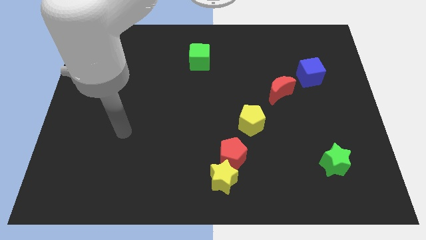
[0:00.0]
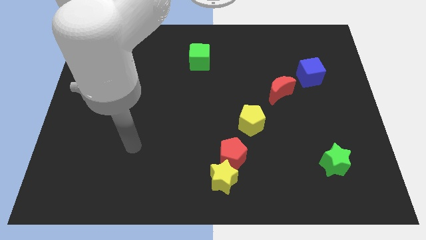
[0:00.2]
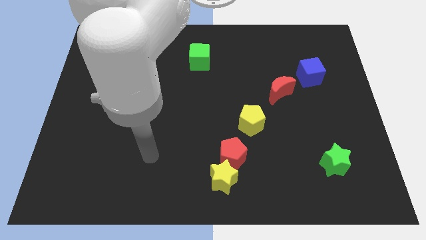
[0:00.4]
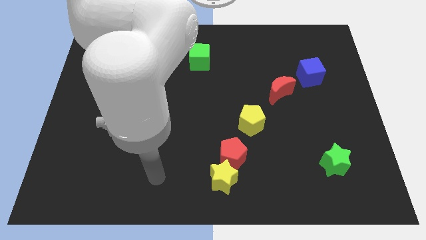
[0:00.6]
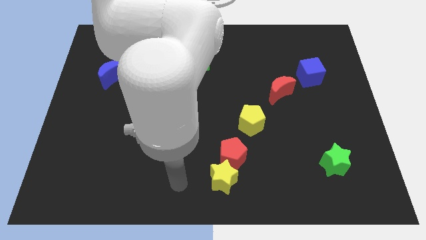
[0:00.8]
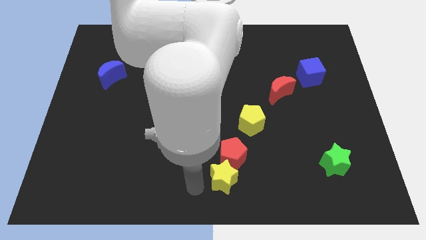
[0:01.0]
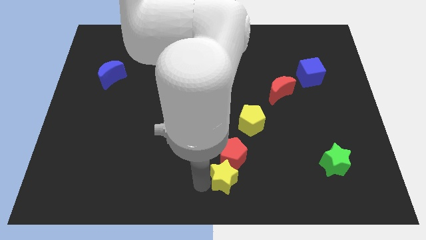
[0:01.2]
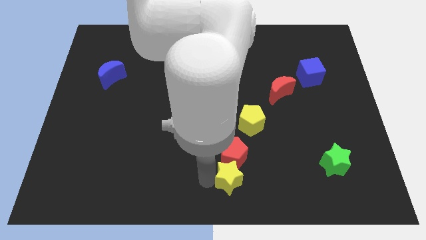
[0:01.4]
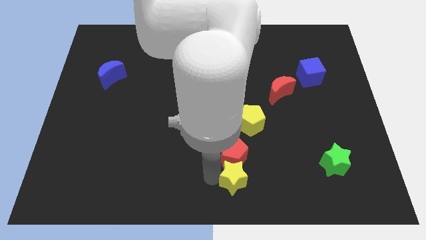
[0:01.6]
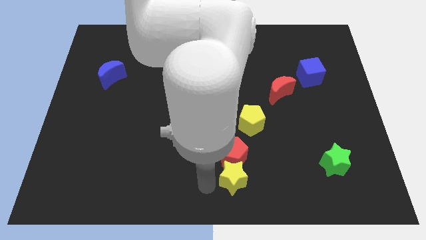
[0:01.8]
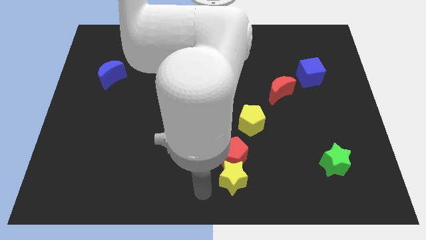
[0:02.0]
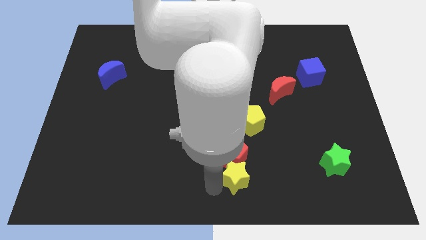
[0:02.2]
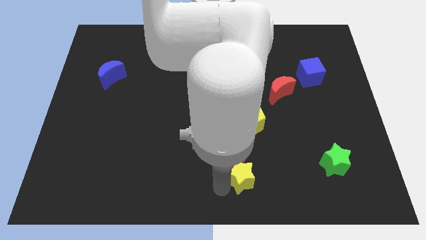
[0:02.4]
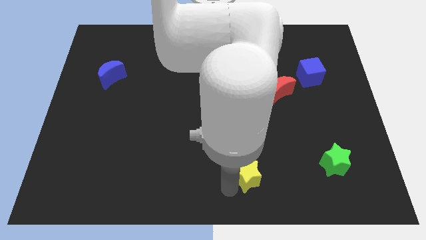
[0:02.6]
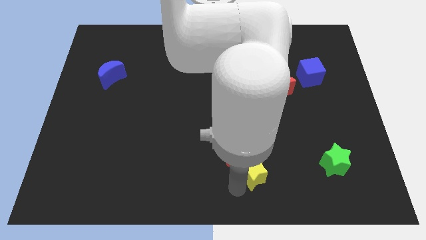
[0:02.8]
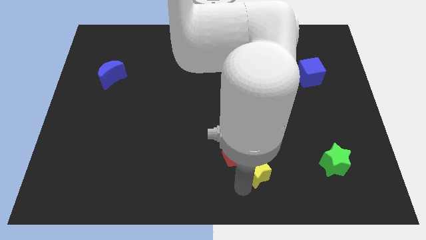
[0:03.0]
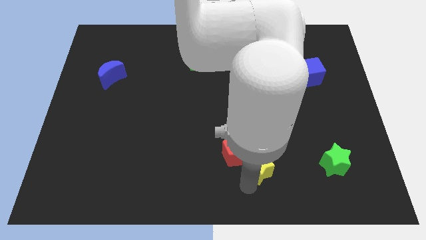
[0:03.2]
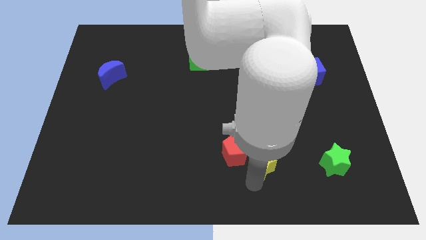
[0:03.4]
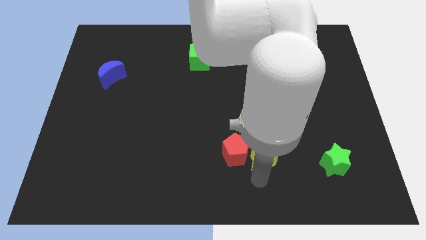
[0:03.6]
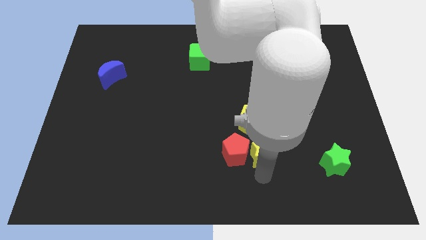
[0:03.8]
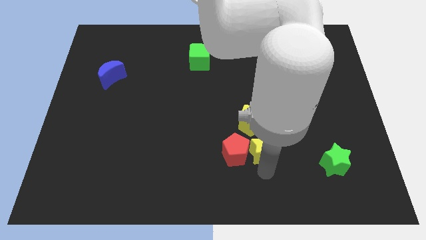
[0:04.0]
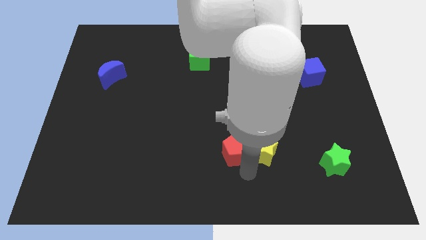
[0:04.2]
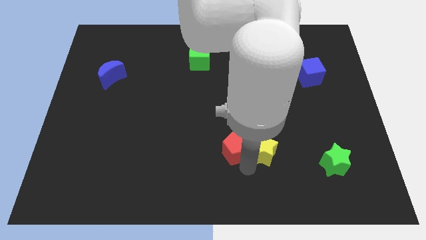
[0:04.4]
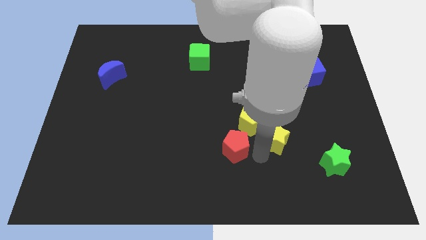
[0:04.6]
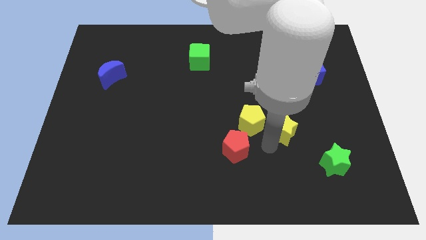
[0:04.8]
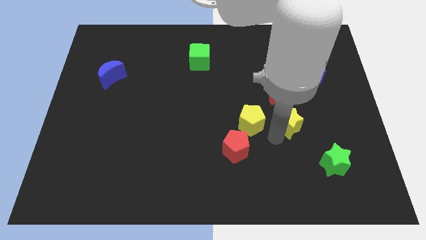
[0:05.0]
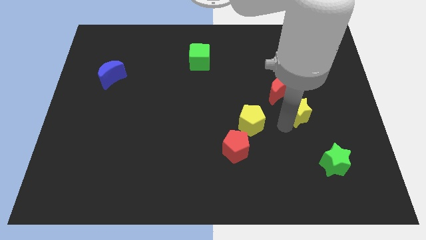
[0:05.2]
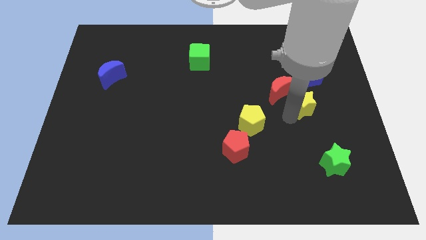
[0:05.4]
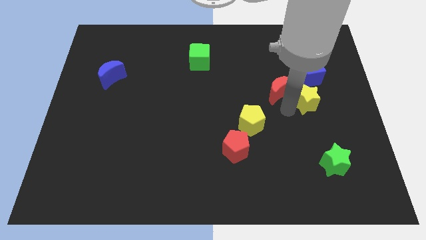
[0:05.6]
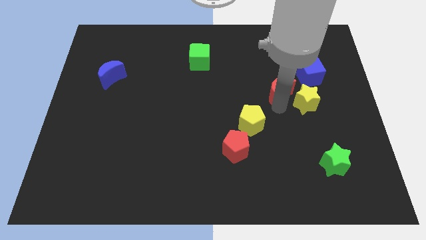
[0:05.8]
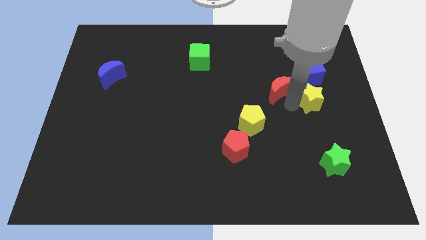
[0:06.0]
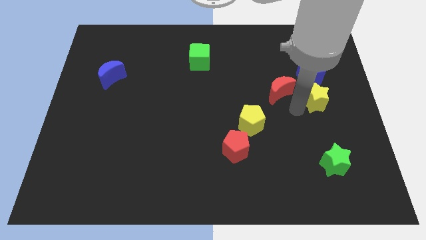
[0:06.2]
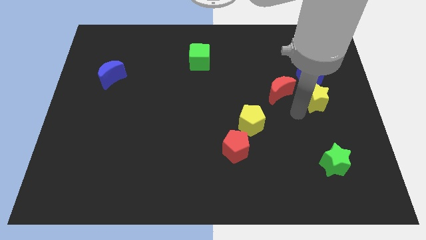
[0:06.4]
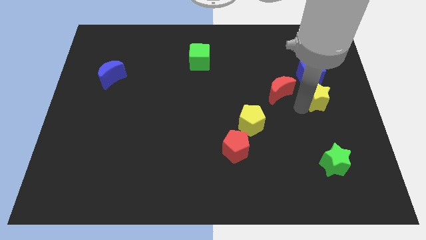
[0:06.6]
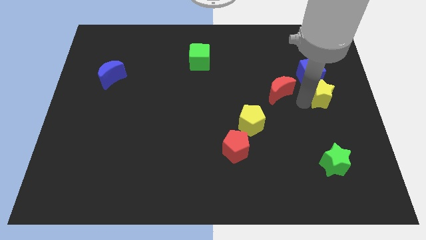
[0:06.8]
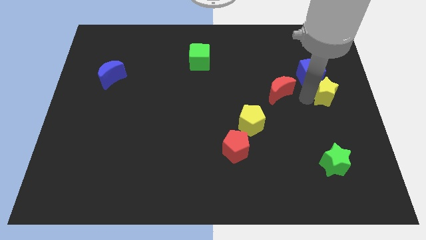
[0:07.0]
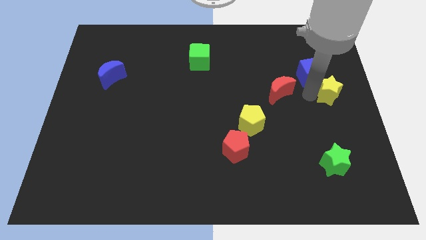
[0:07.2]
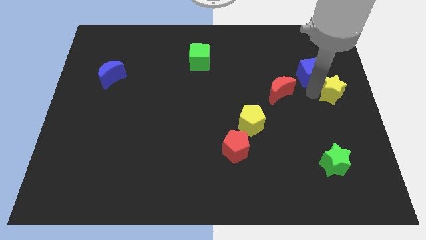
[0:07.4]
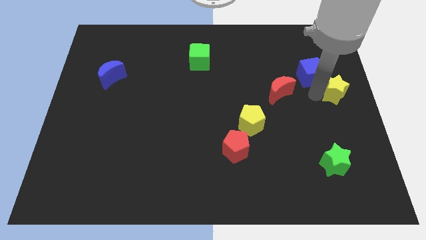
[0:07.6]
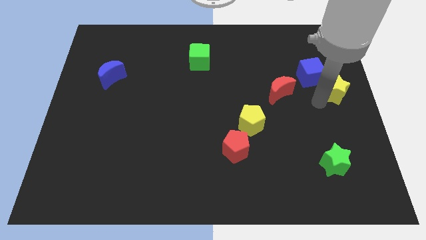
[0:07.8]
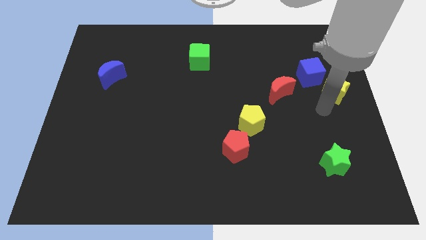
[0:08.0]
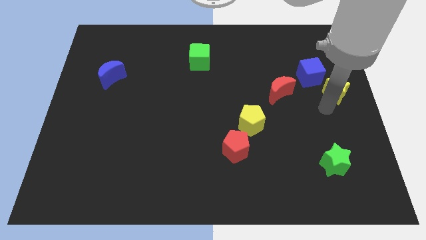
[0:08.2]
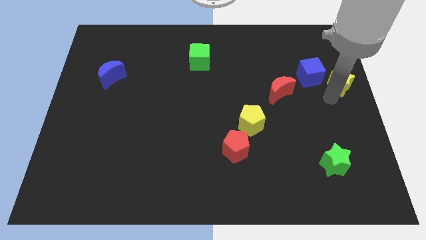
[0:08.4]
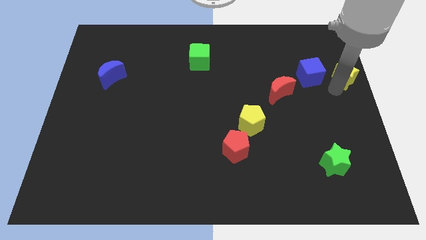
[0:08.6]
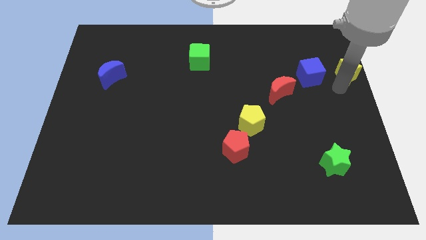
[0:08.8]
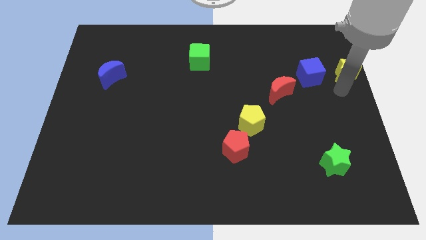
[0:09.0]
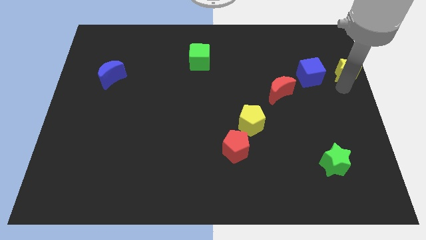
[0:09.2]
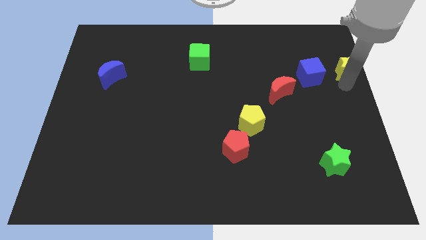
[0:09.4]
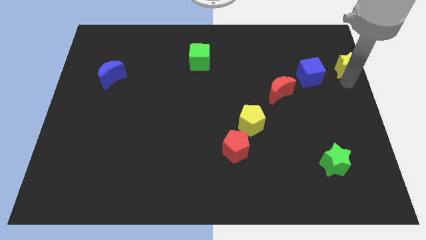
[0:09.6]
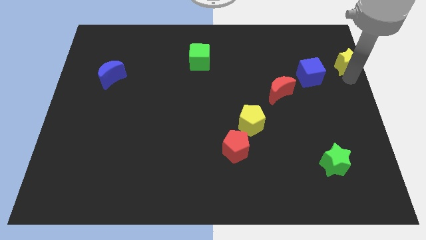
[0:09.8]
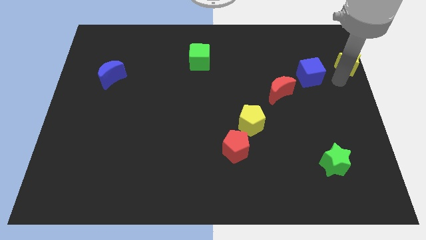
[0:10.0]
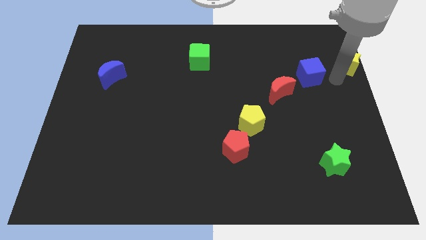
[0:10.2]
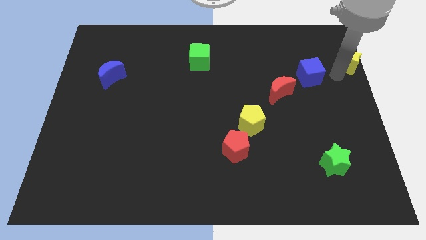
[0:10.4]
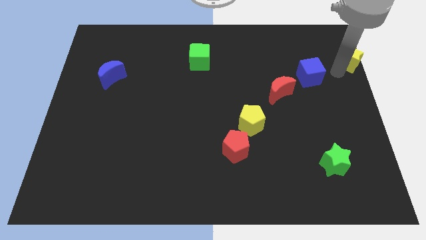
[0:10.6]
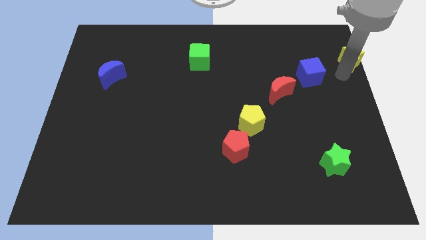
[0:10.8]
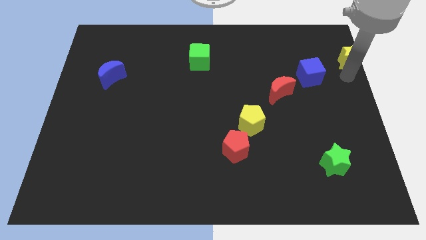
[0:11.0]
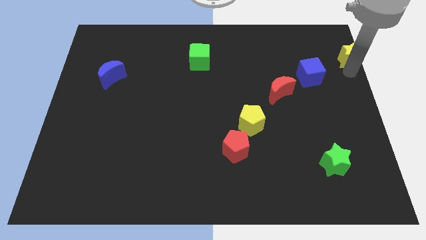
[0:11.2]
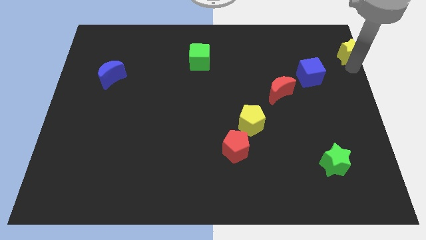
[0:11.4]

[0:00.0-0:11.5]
slide the yellow star to the top right

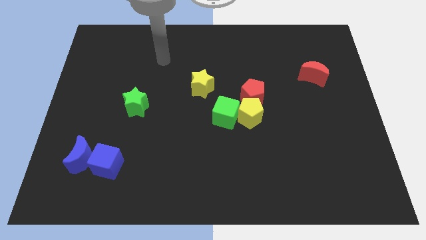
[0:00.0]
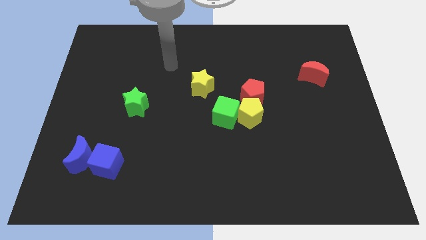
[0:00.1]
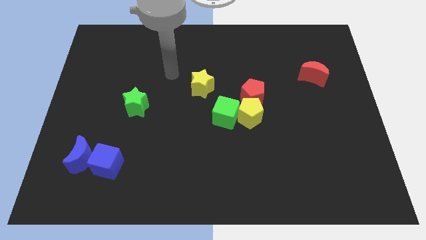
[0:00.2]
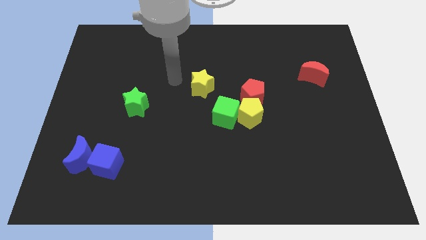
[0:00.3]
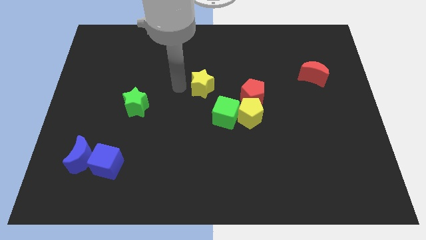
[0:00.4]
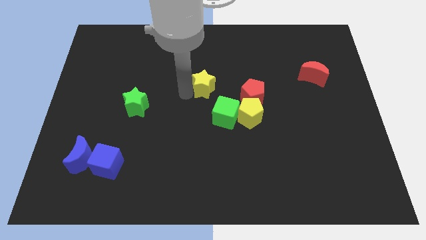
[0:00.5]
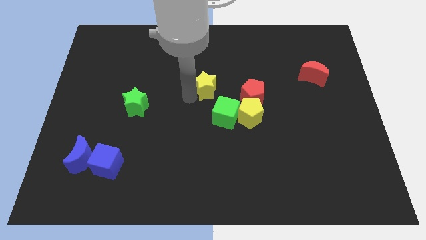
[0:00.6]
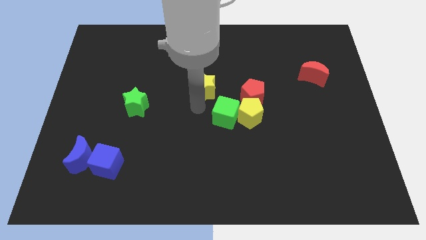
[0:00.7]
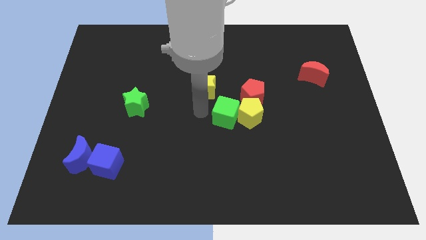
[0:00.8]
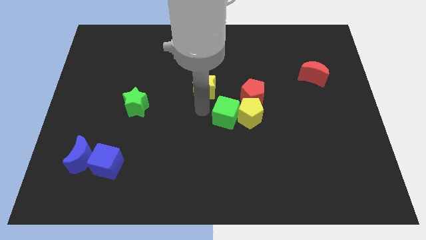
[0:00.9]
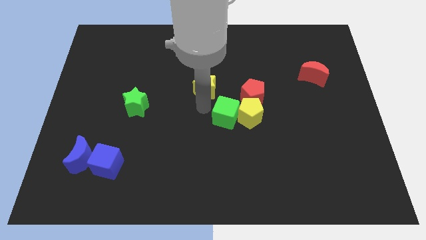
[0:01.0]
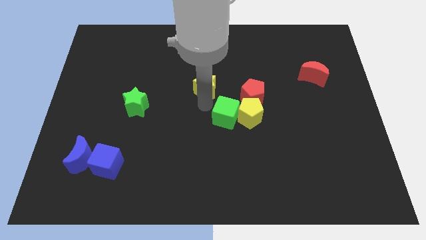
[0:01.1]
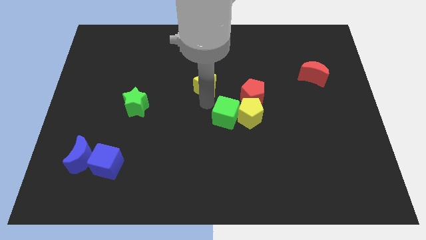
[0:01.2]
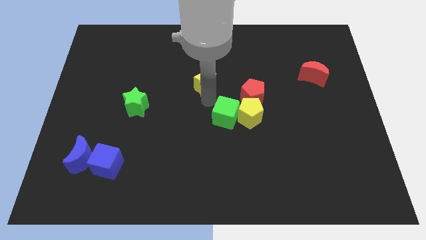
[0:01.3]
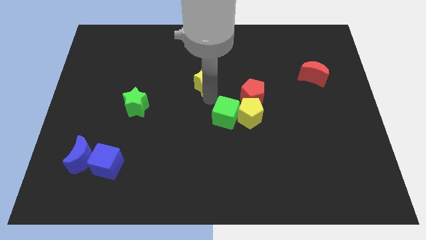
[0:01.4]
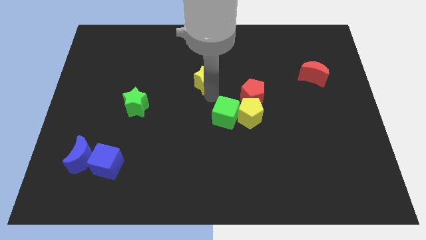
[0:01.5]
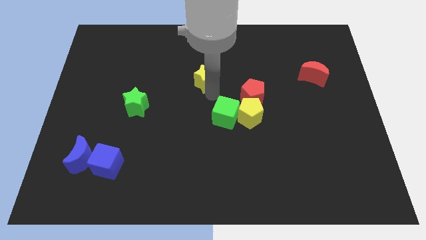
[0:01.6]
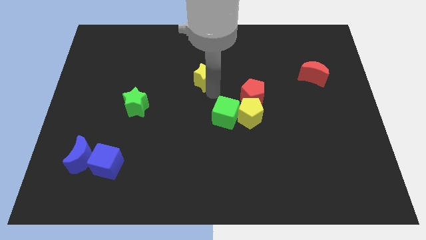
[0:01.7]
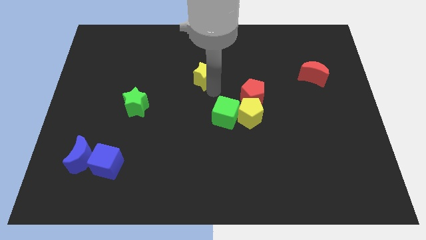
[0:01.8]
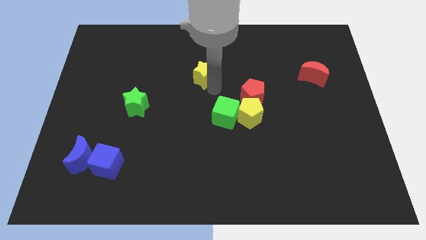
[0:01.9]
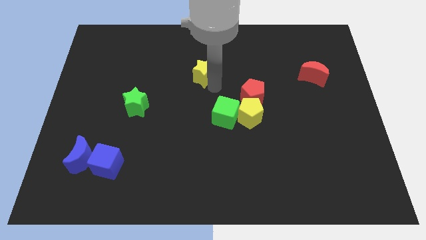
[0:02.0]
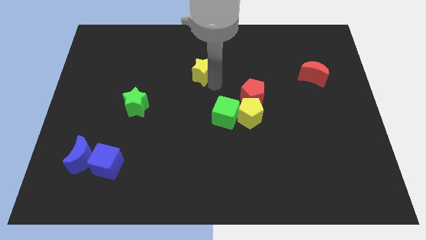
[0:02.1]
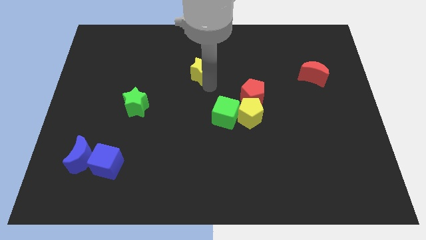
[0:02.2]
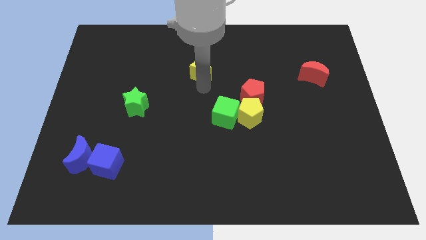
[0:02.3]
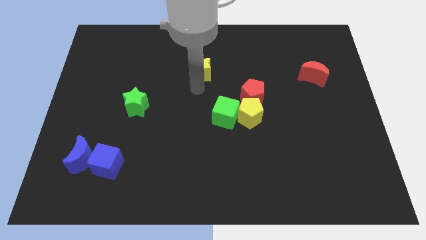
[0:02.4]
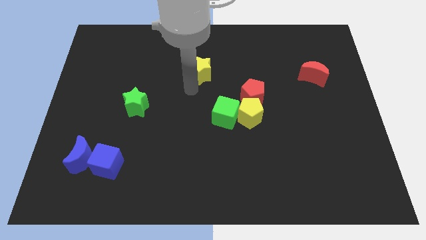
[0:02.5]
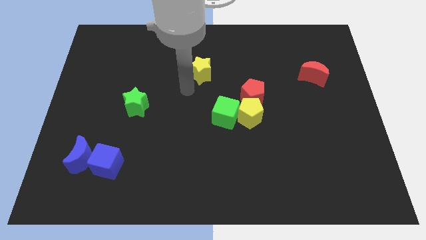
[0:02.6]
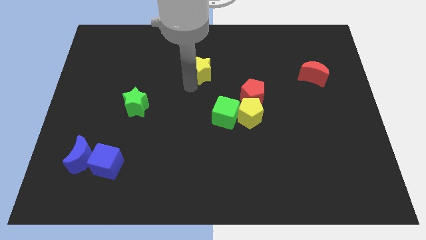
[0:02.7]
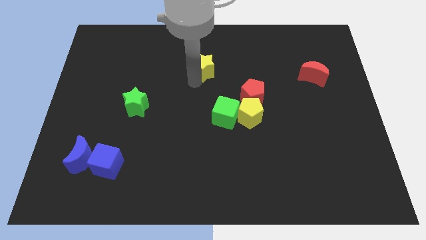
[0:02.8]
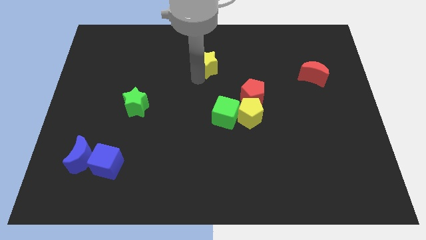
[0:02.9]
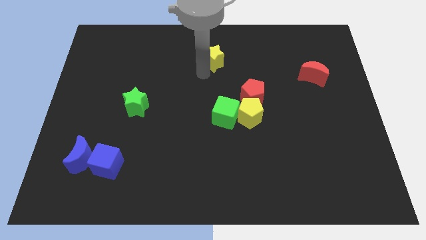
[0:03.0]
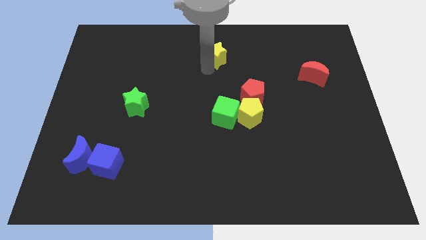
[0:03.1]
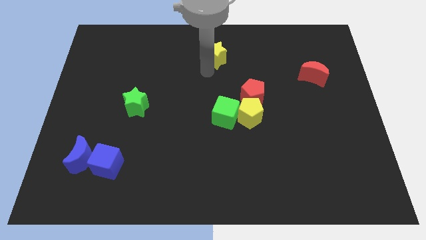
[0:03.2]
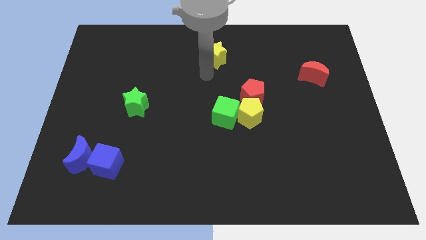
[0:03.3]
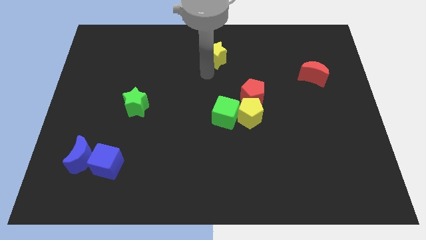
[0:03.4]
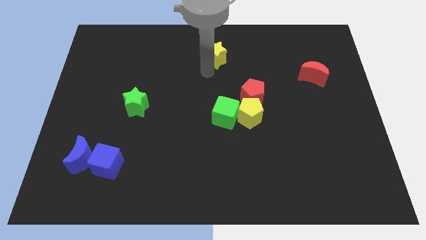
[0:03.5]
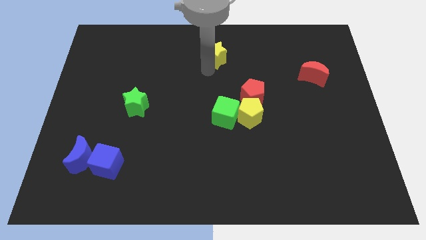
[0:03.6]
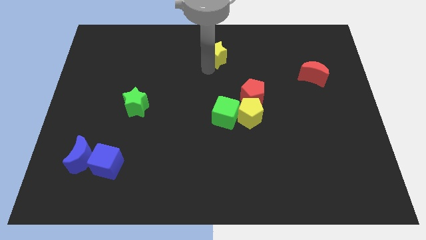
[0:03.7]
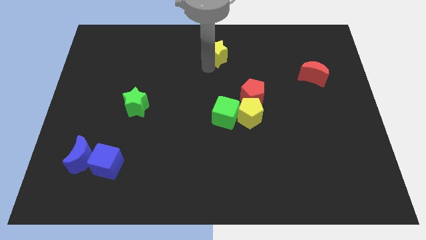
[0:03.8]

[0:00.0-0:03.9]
move the yellow star to the top side
